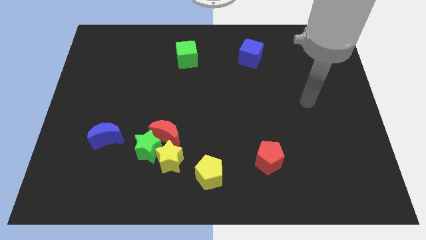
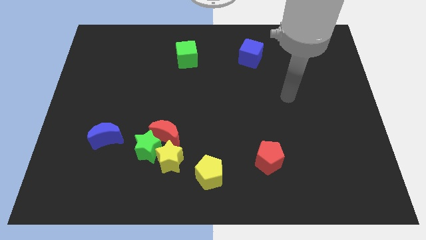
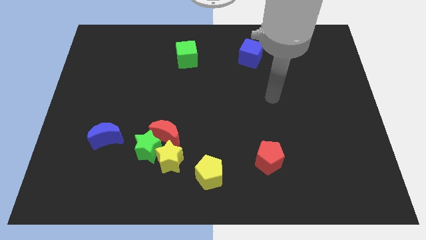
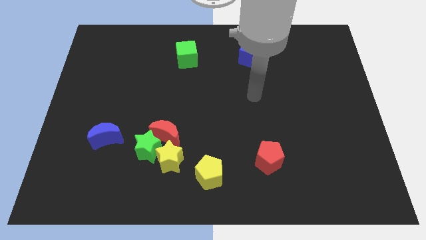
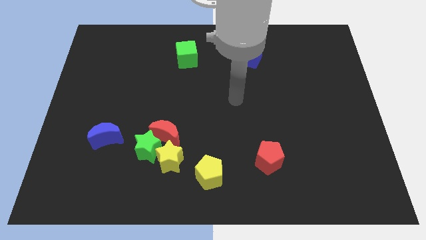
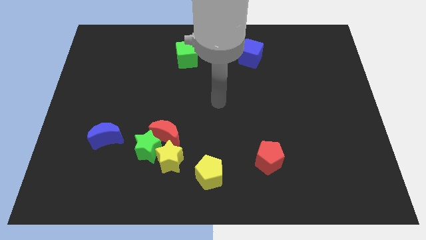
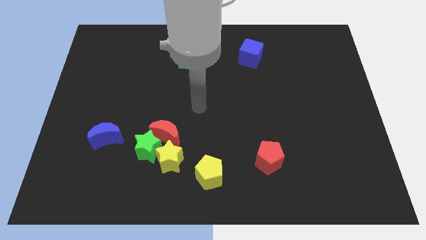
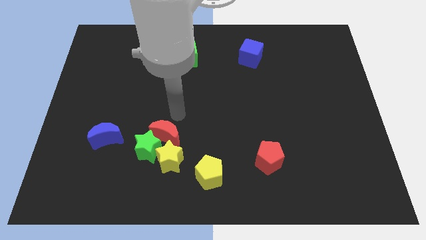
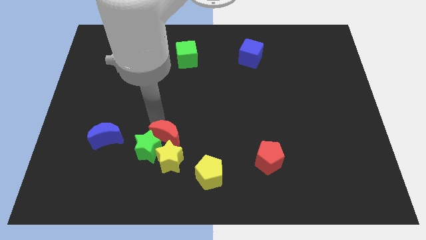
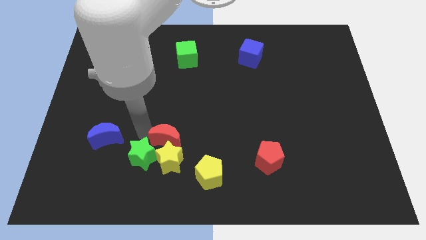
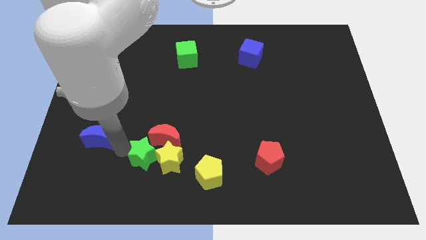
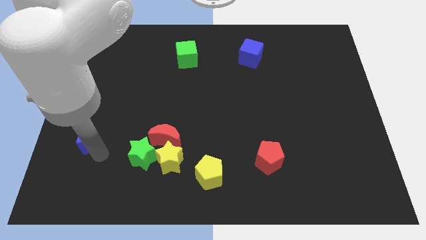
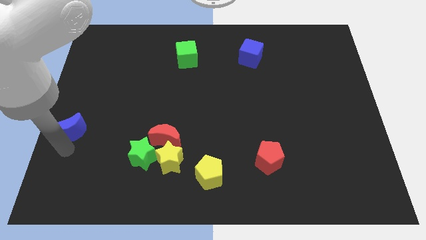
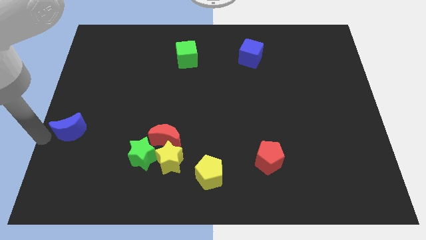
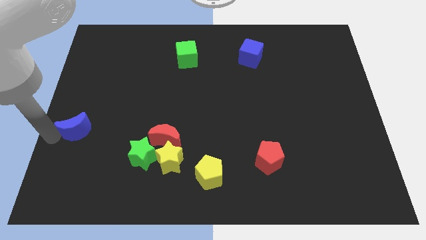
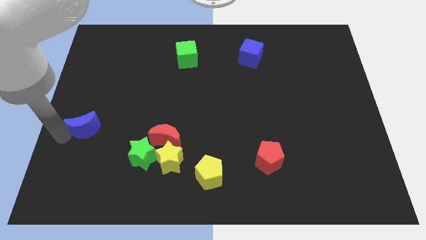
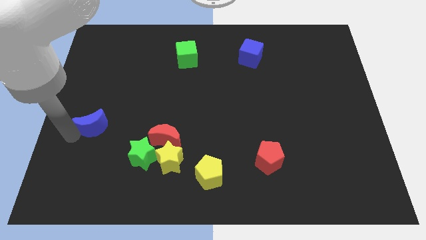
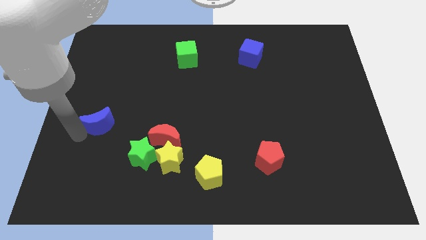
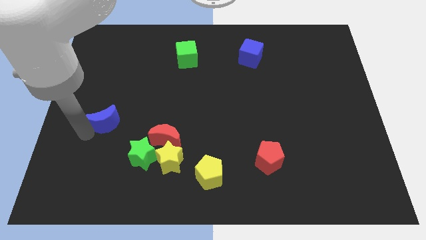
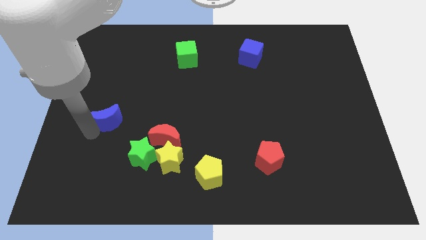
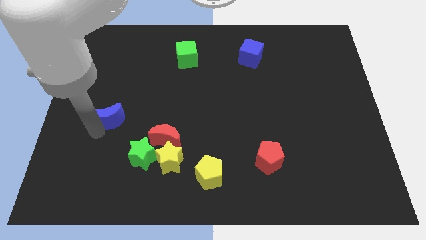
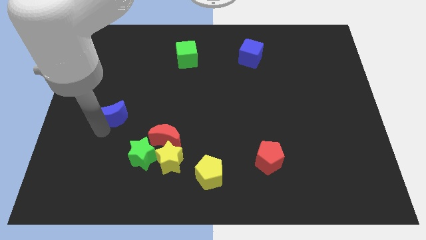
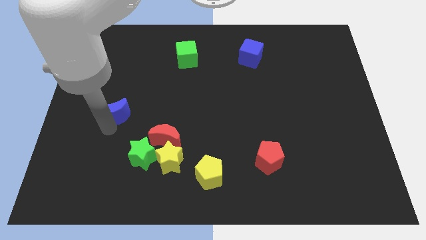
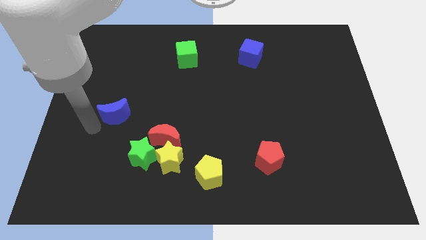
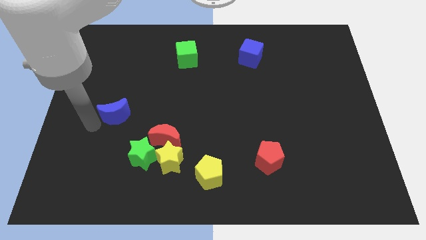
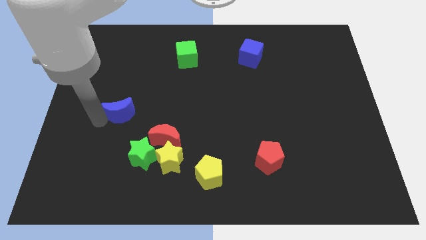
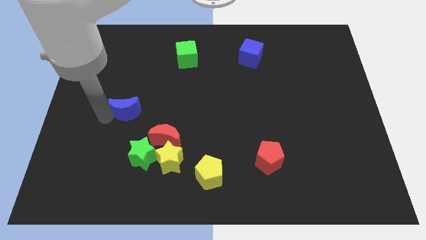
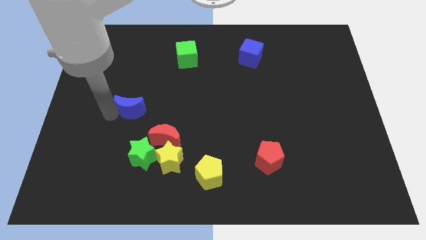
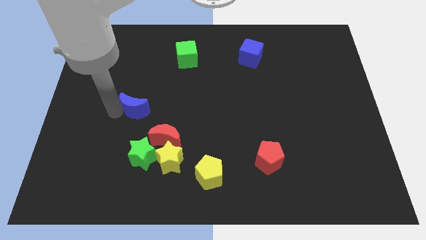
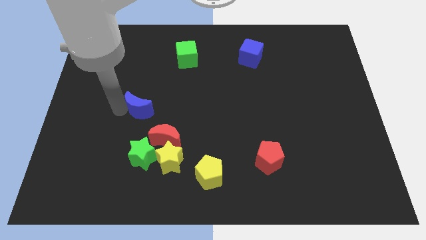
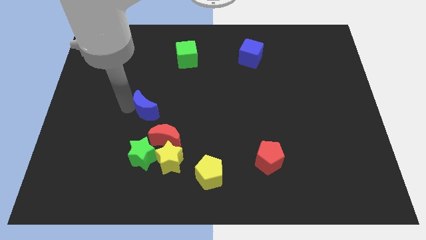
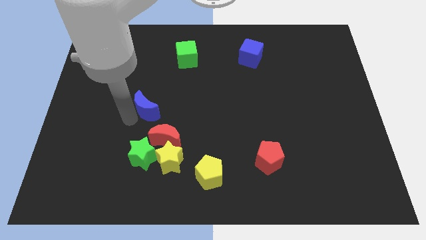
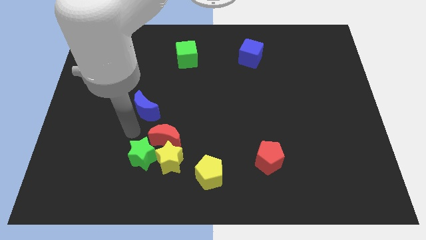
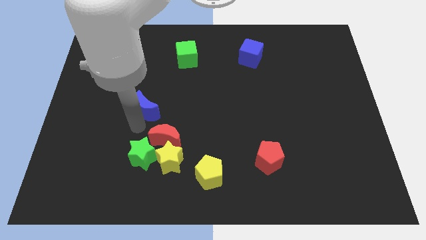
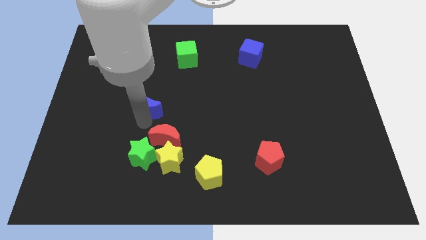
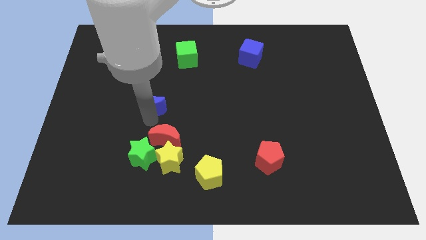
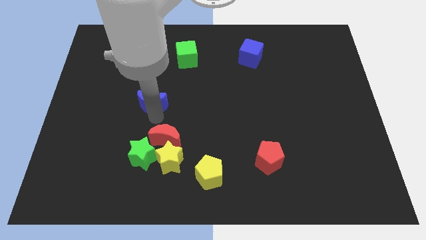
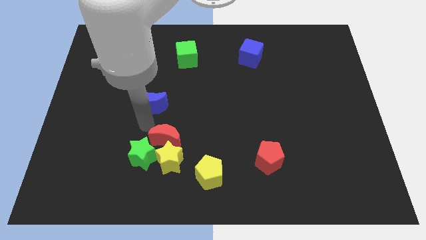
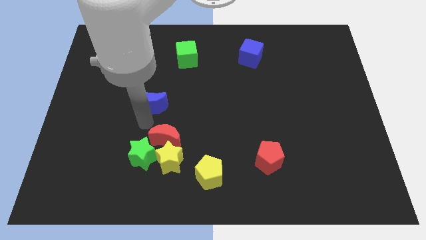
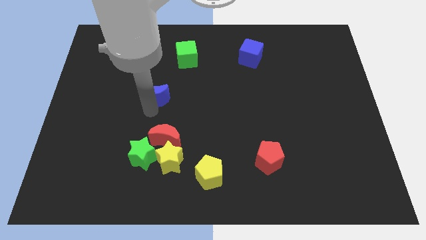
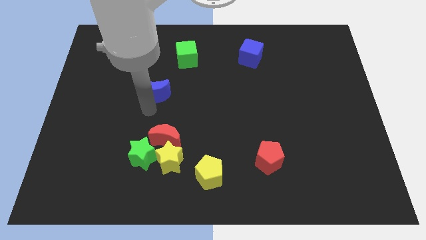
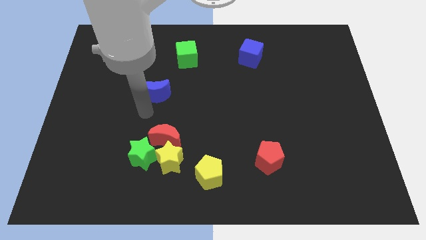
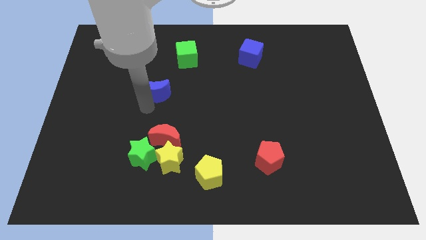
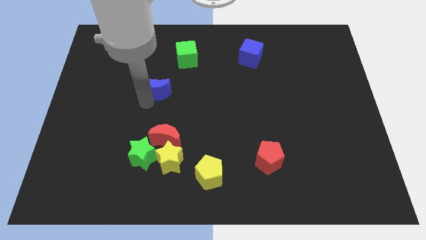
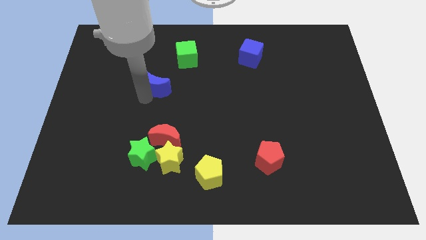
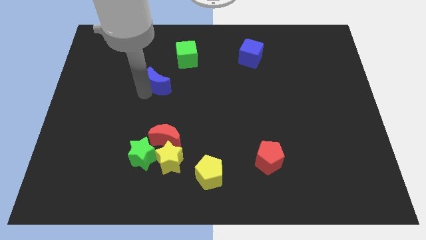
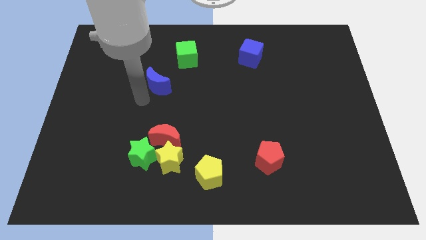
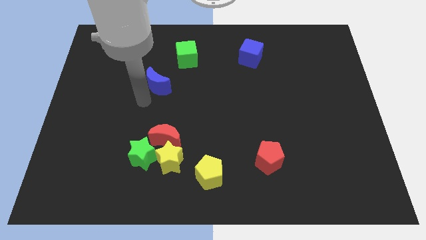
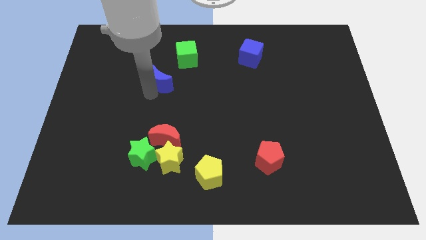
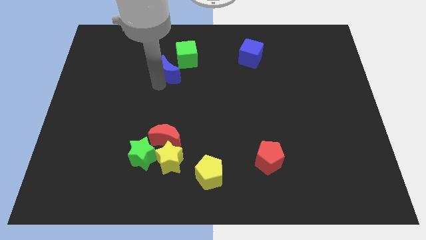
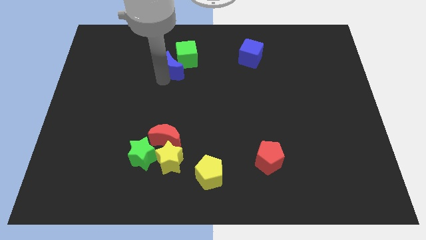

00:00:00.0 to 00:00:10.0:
push the blue moon close to the green cube

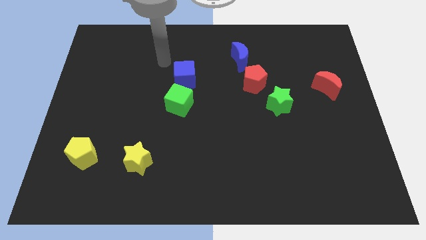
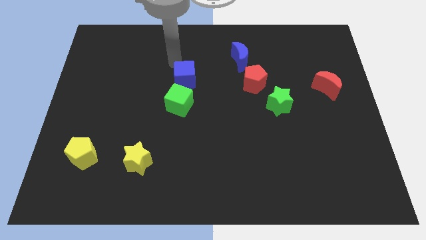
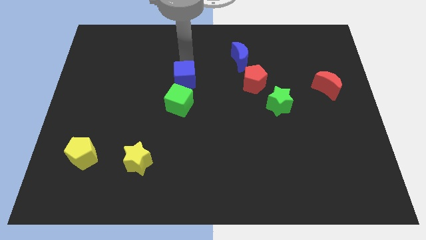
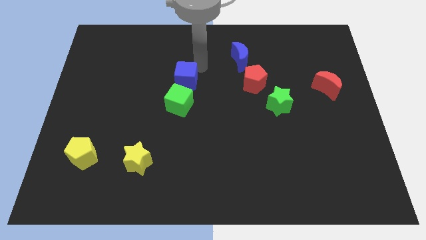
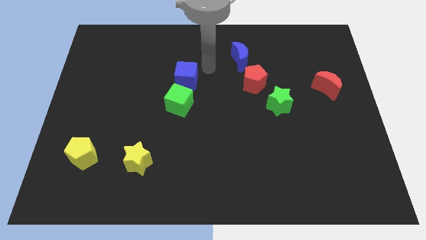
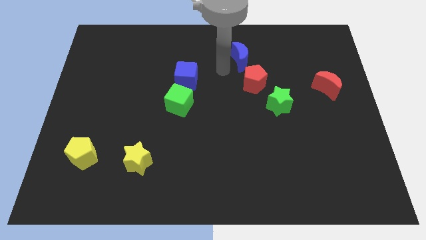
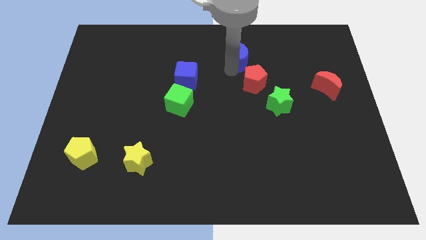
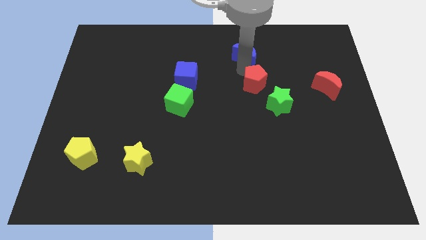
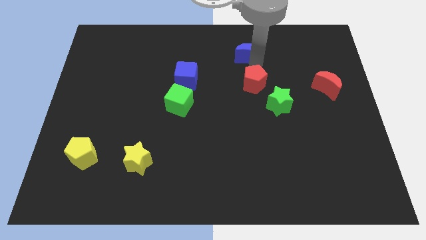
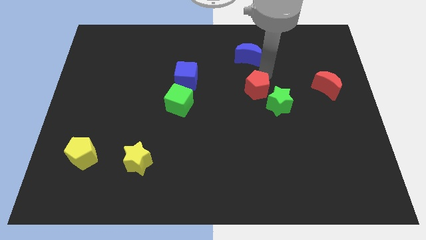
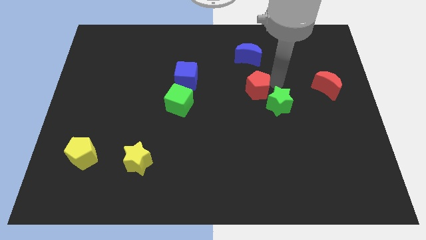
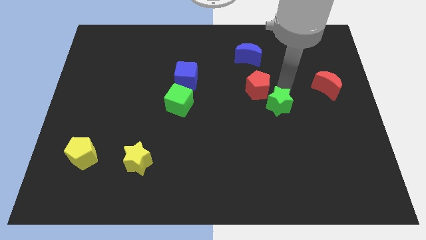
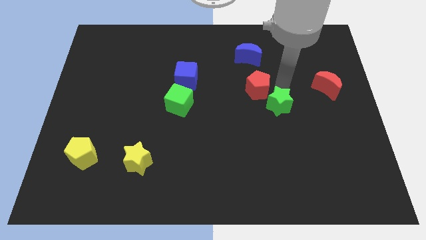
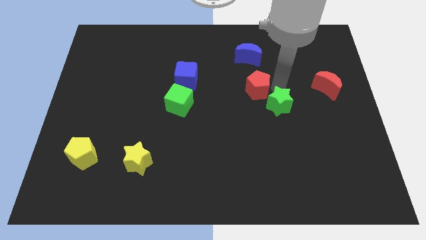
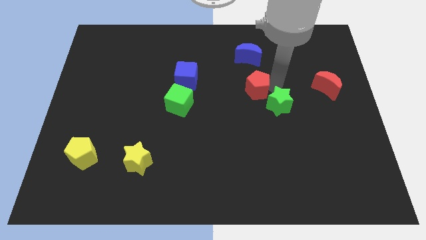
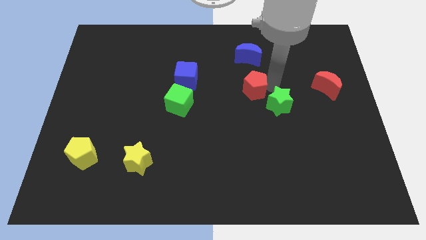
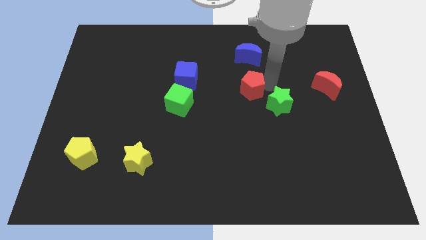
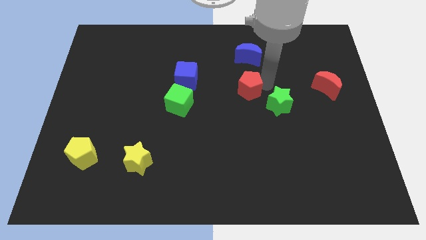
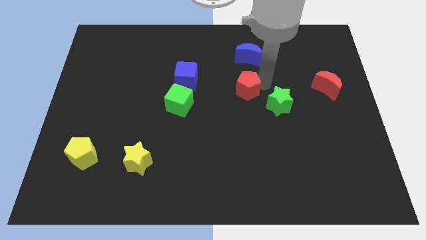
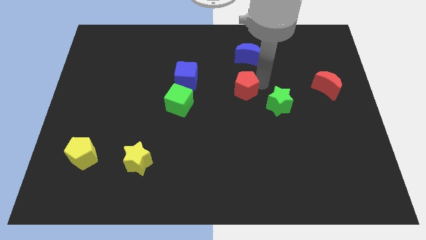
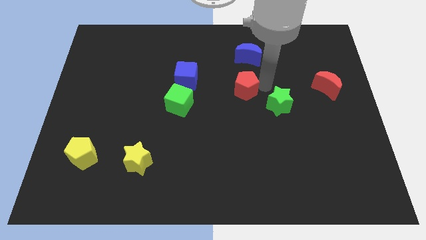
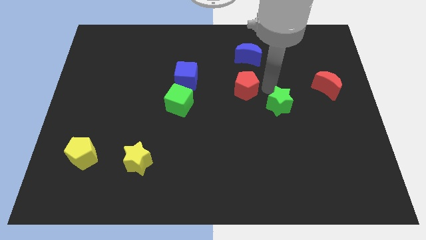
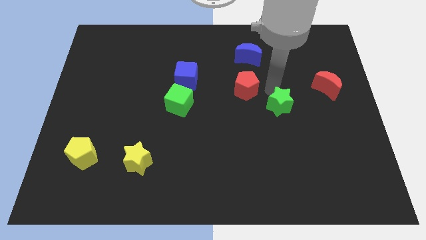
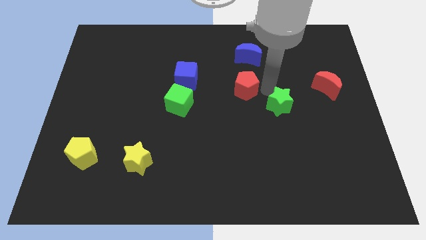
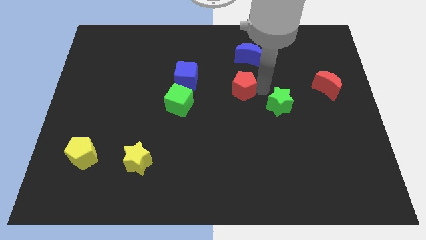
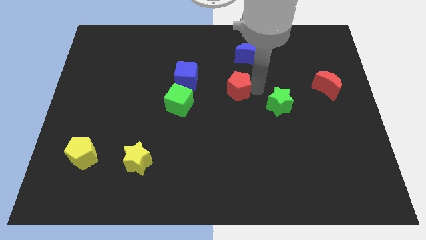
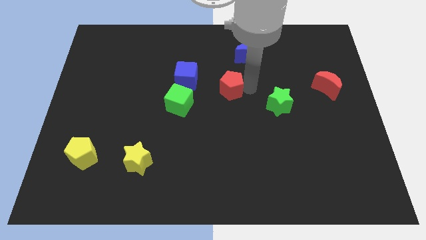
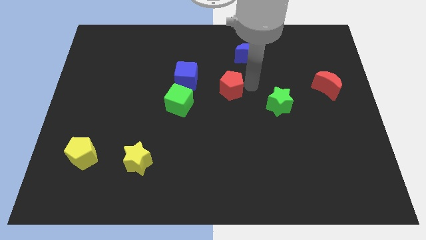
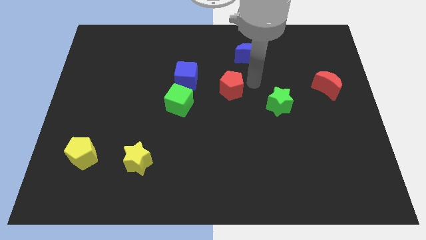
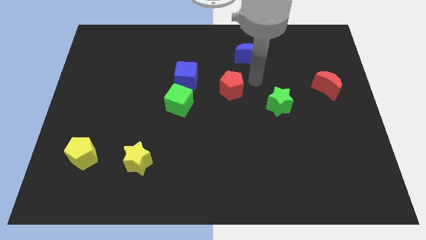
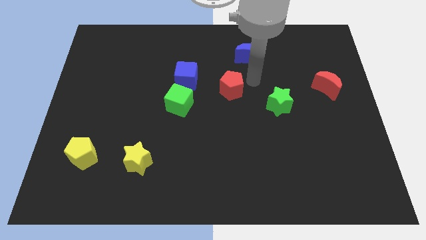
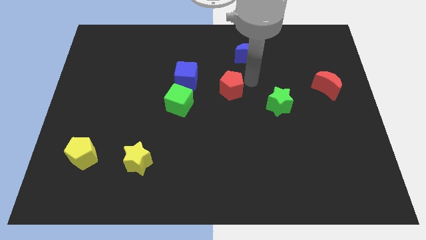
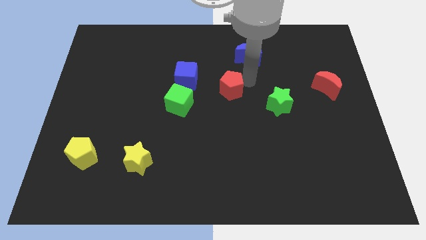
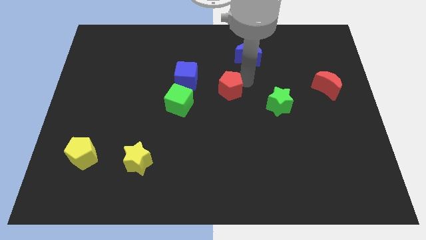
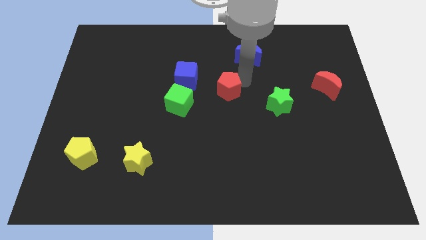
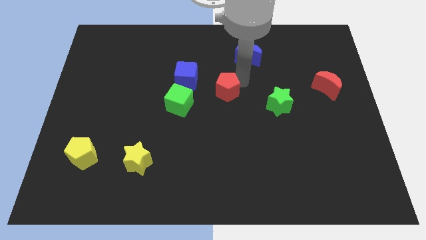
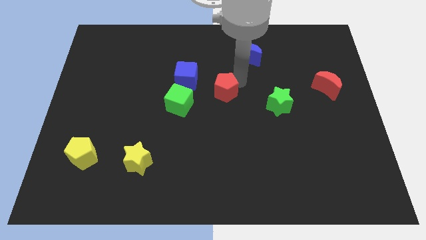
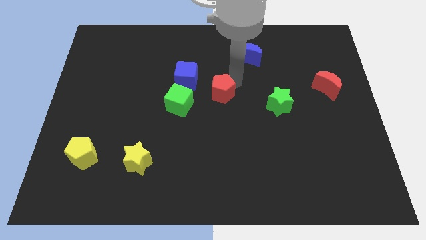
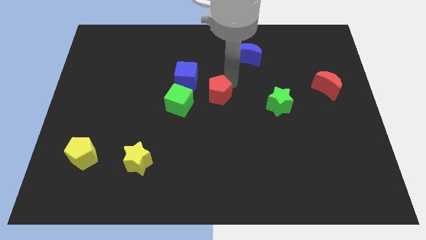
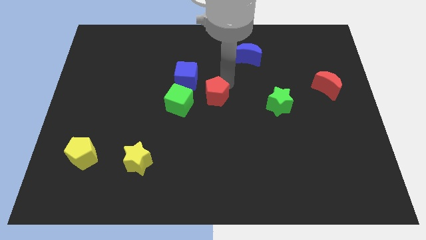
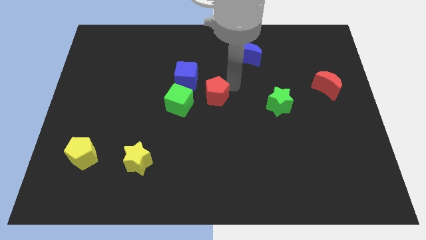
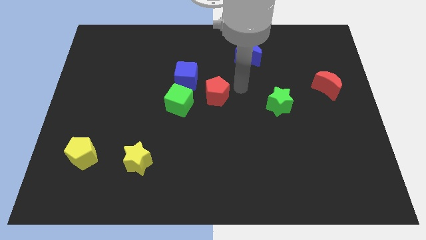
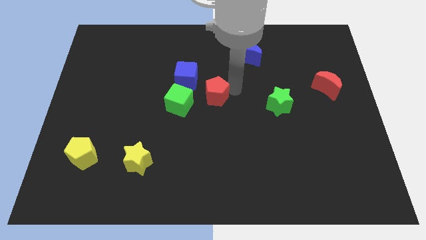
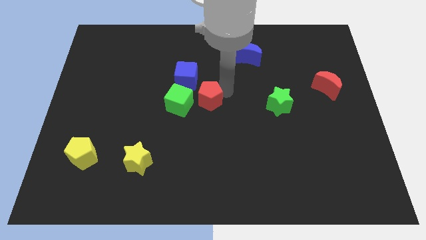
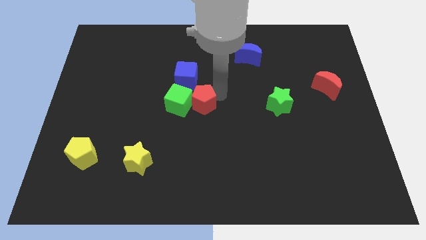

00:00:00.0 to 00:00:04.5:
slide the red pentagon close to the green cube
